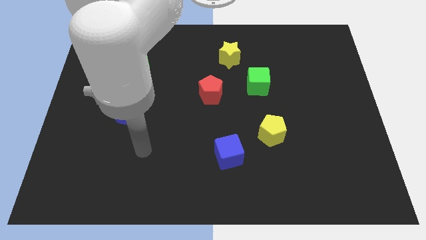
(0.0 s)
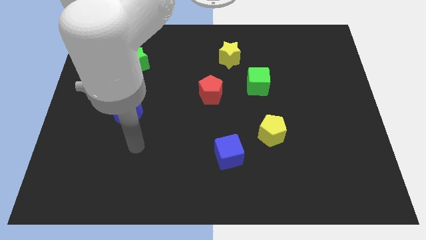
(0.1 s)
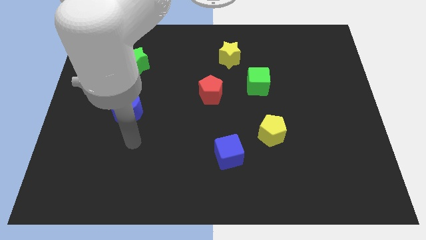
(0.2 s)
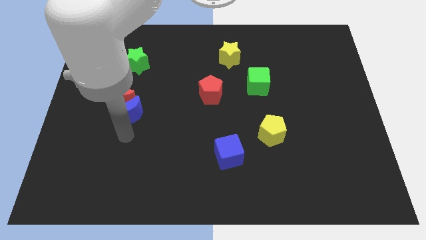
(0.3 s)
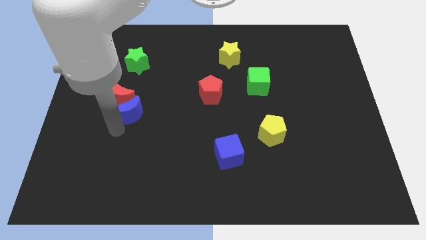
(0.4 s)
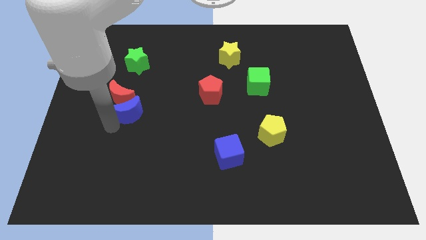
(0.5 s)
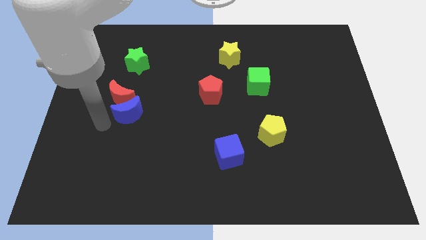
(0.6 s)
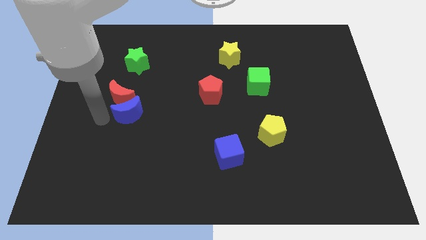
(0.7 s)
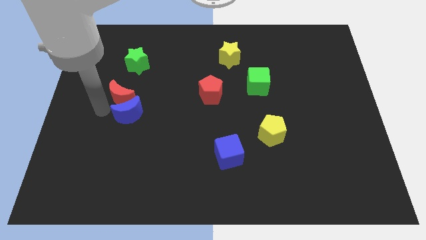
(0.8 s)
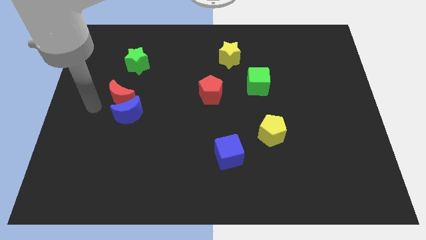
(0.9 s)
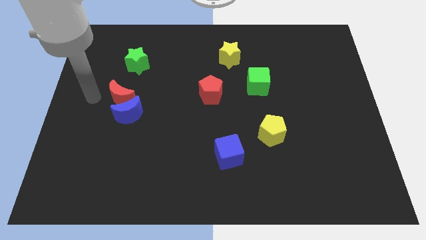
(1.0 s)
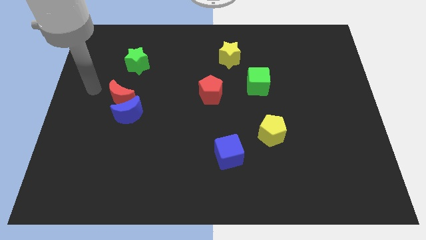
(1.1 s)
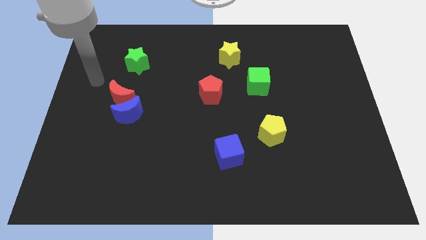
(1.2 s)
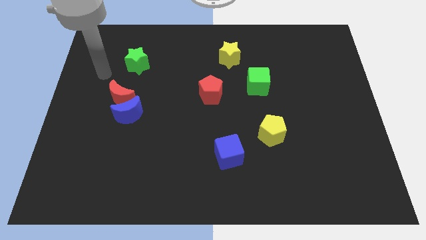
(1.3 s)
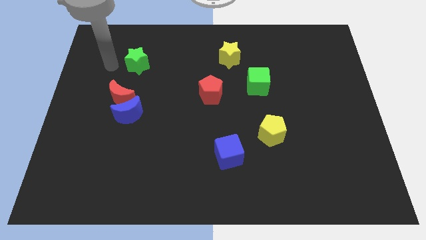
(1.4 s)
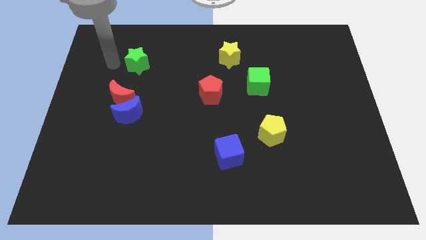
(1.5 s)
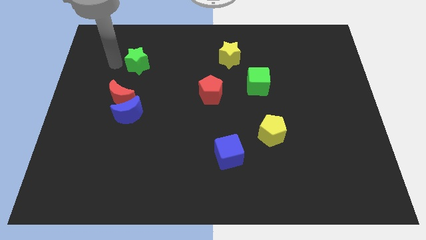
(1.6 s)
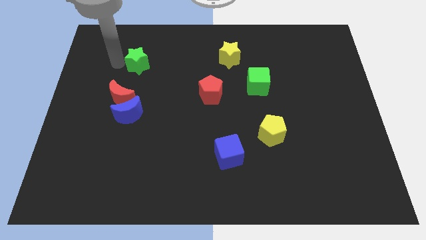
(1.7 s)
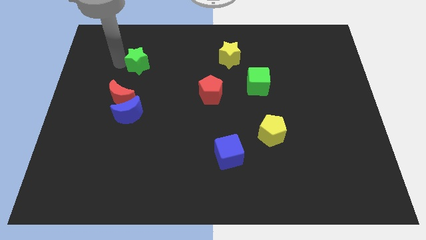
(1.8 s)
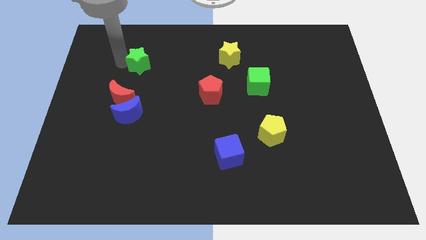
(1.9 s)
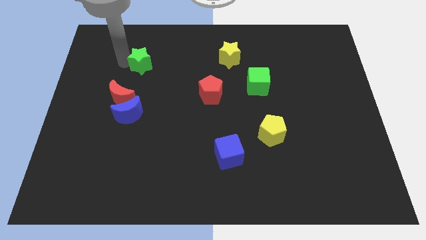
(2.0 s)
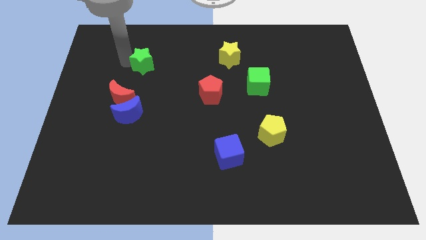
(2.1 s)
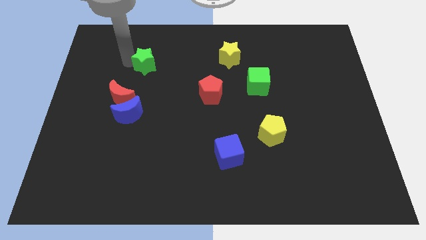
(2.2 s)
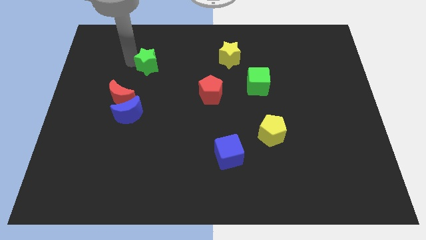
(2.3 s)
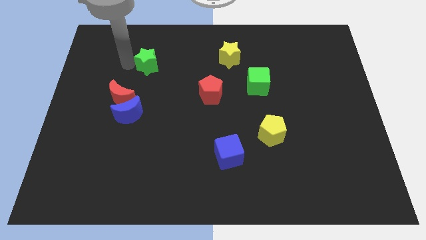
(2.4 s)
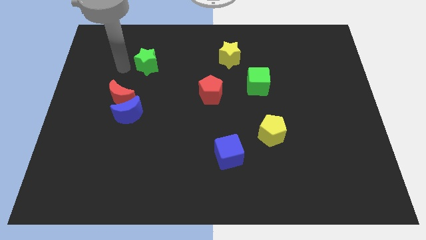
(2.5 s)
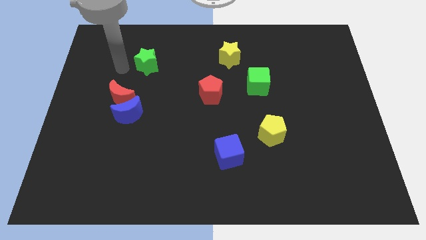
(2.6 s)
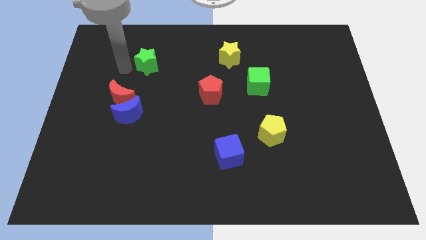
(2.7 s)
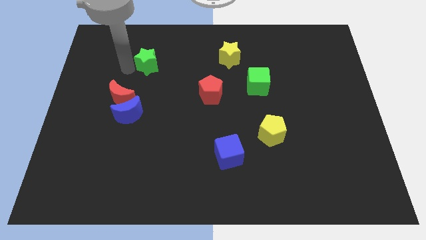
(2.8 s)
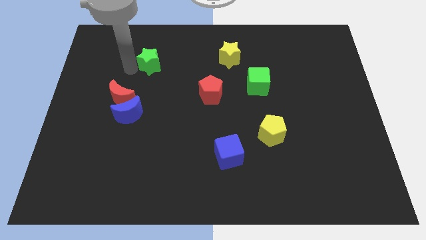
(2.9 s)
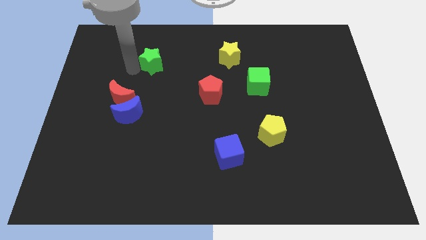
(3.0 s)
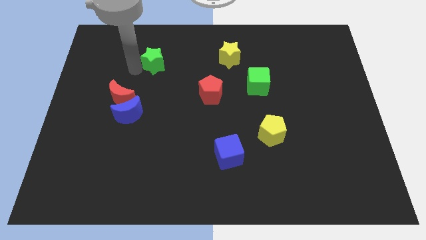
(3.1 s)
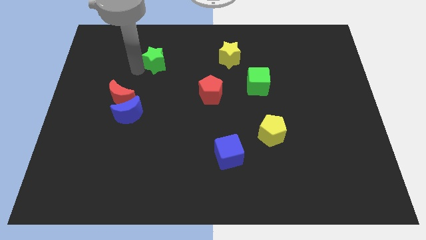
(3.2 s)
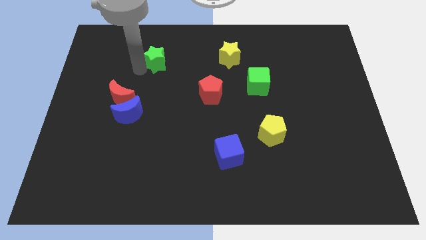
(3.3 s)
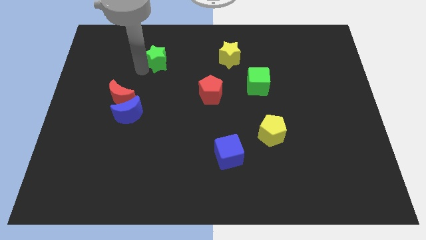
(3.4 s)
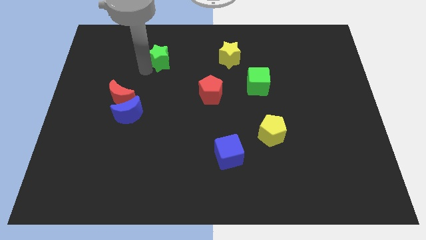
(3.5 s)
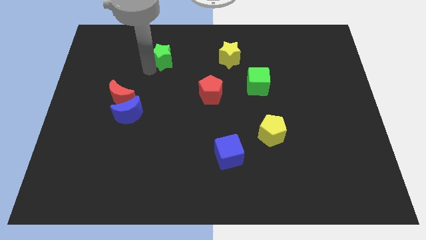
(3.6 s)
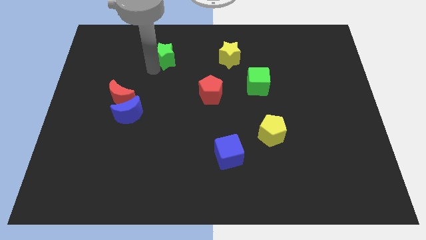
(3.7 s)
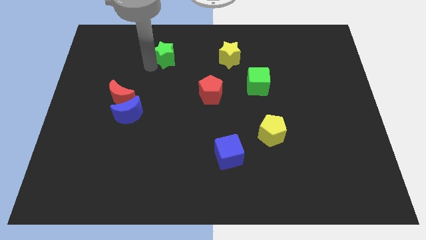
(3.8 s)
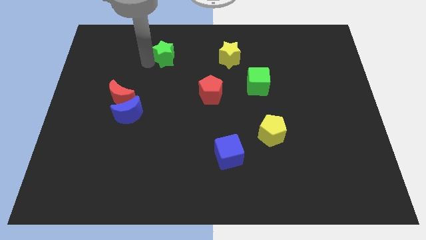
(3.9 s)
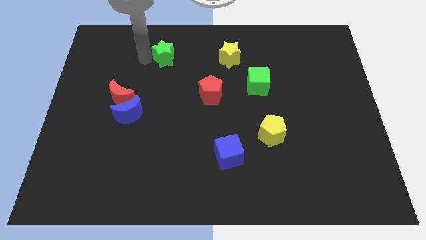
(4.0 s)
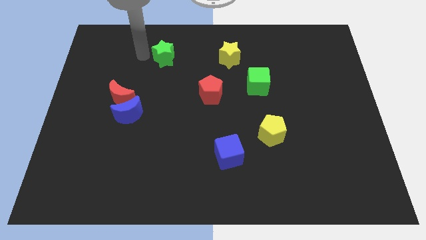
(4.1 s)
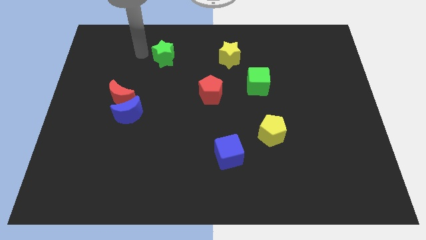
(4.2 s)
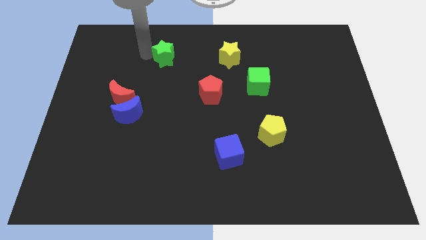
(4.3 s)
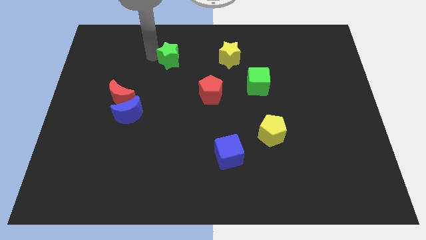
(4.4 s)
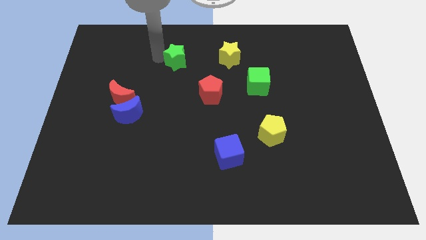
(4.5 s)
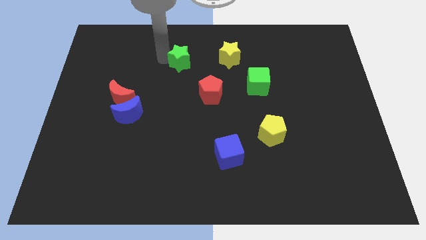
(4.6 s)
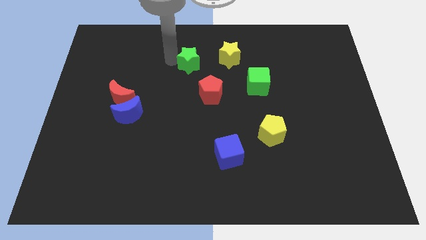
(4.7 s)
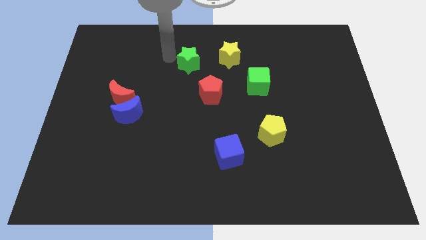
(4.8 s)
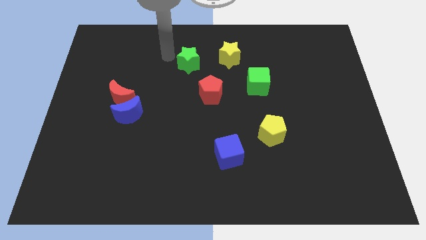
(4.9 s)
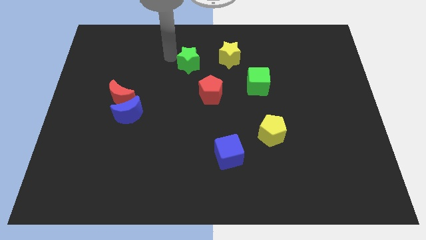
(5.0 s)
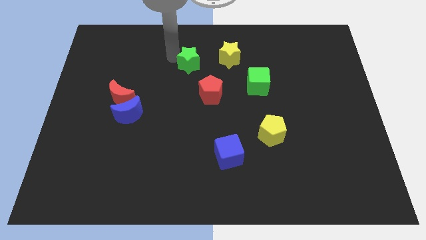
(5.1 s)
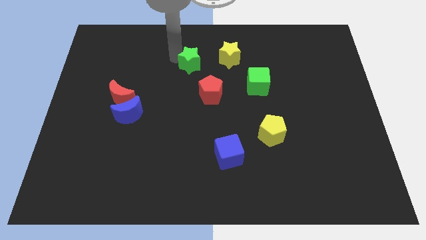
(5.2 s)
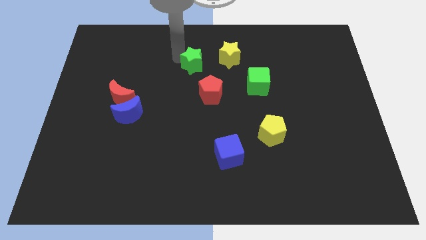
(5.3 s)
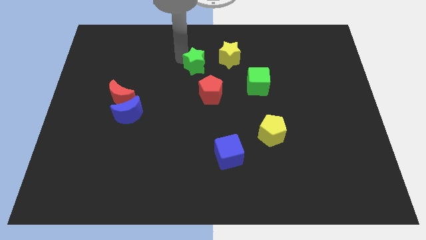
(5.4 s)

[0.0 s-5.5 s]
put the green star to the bottom left of the yellow star

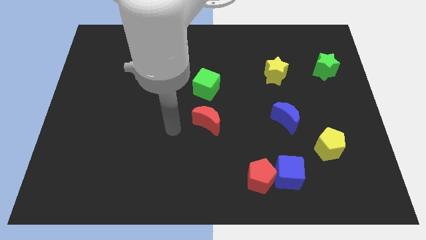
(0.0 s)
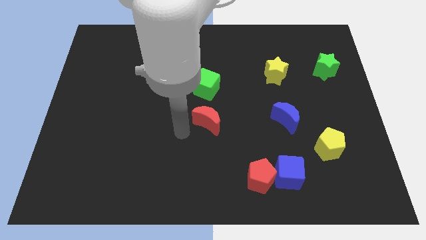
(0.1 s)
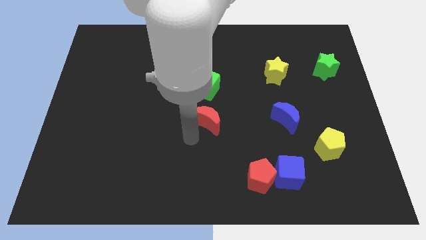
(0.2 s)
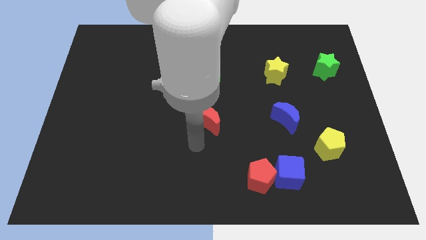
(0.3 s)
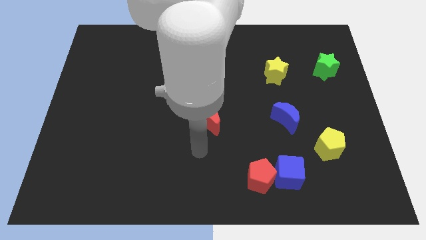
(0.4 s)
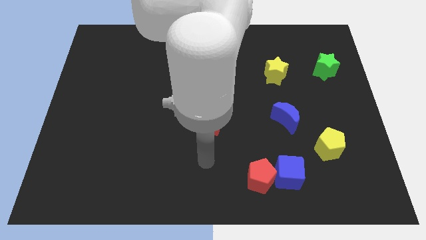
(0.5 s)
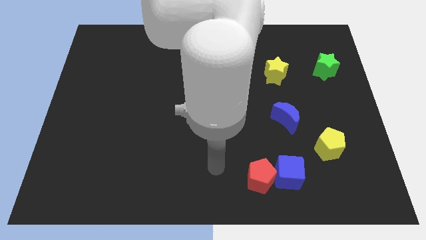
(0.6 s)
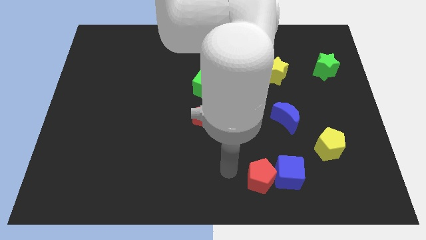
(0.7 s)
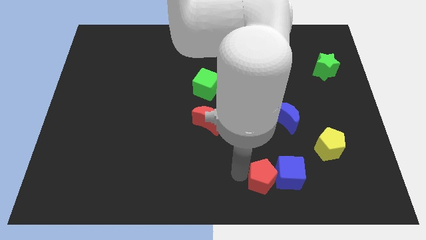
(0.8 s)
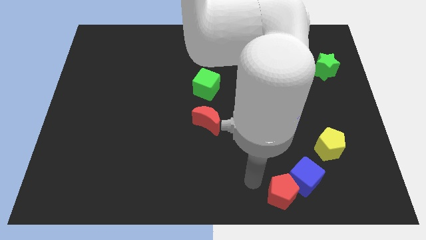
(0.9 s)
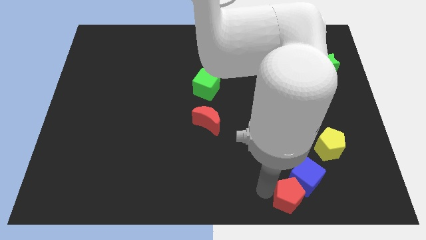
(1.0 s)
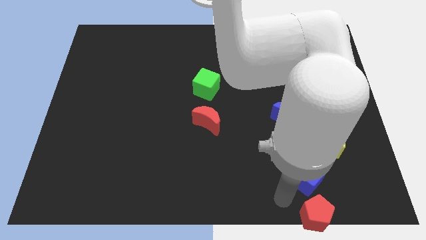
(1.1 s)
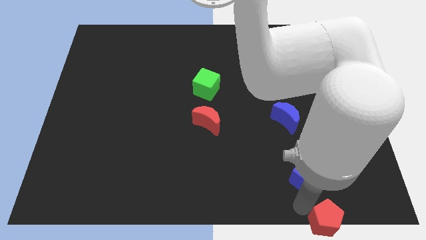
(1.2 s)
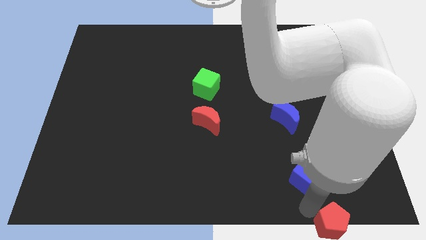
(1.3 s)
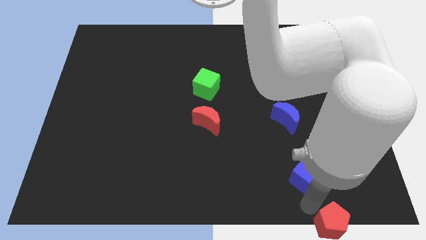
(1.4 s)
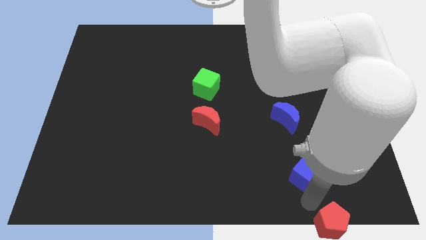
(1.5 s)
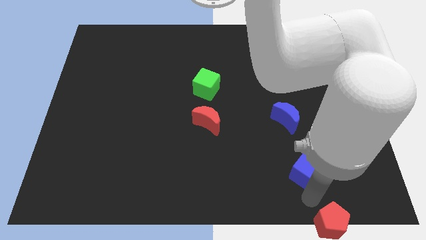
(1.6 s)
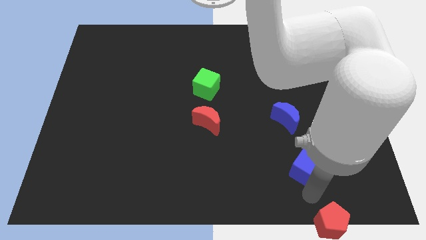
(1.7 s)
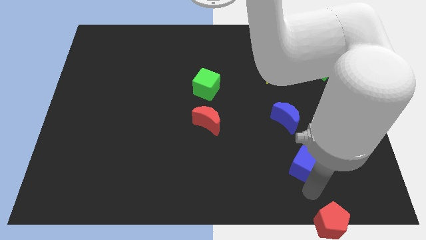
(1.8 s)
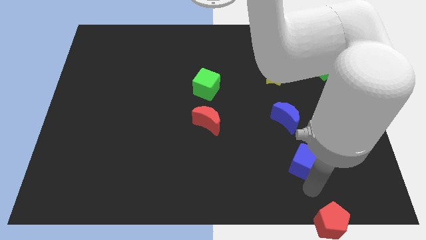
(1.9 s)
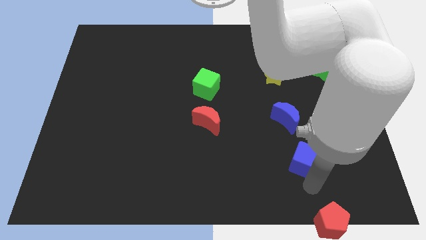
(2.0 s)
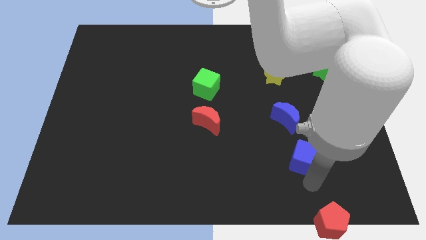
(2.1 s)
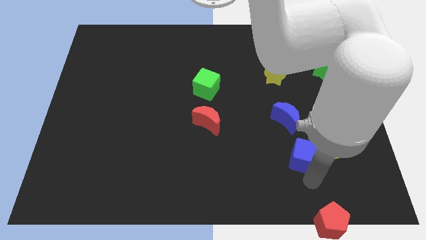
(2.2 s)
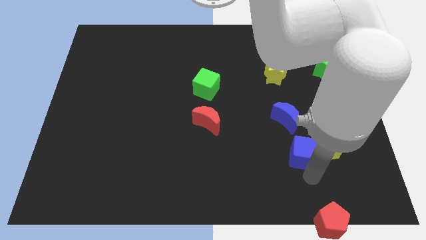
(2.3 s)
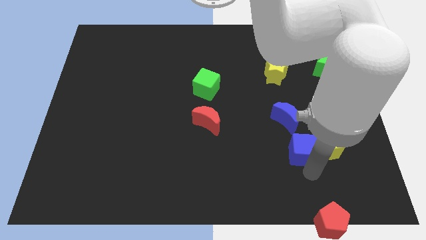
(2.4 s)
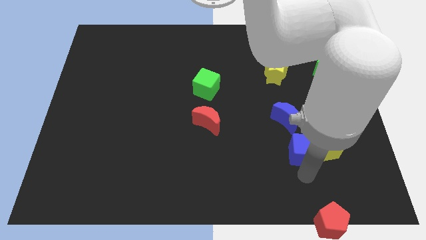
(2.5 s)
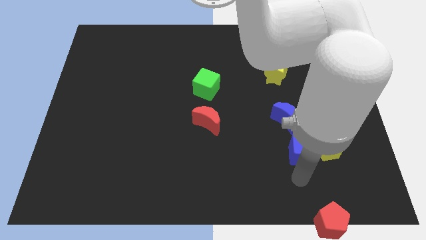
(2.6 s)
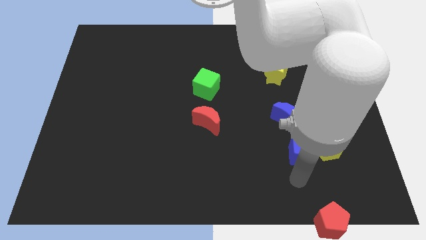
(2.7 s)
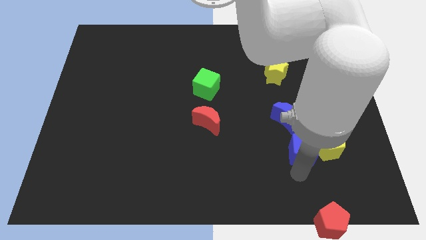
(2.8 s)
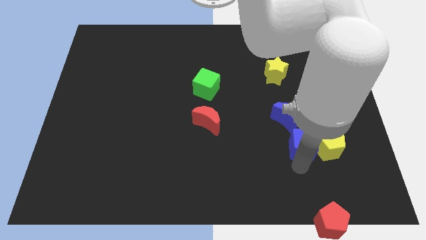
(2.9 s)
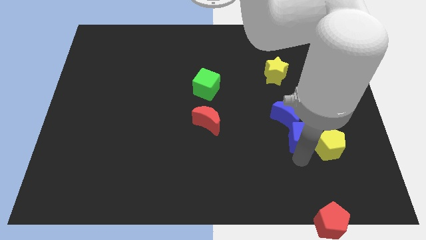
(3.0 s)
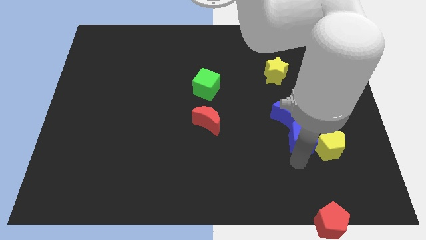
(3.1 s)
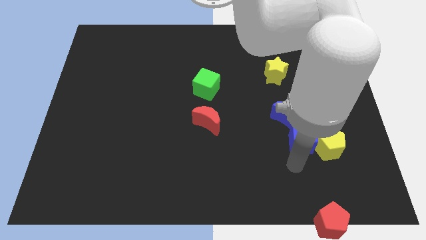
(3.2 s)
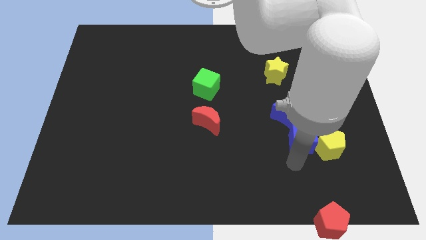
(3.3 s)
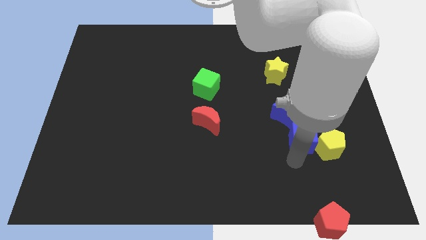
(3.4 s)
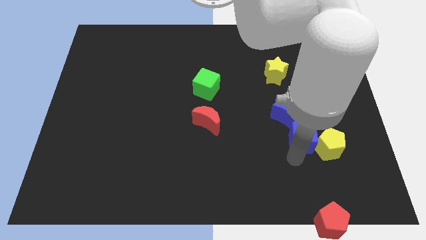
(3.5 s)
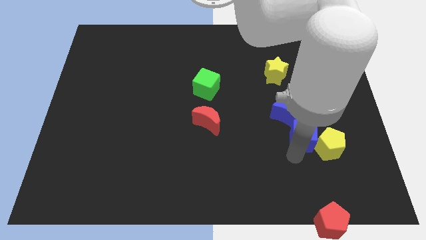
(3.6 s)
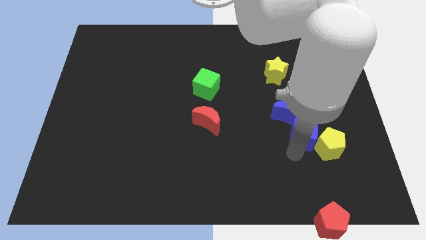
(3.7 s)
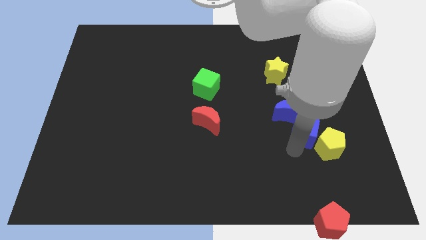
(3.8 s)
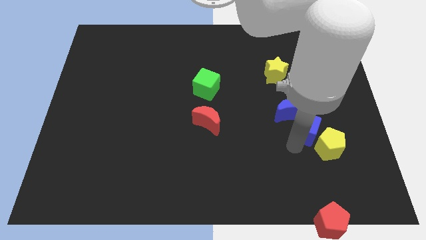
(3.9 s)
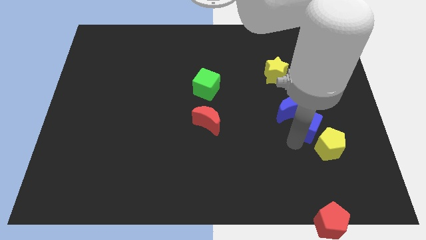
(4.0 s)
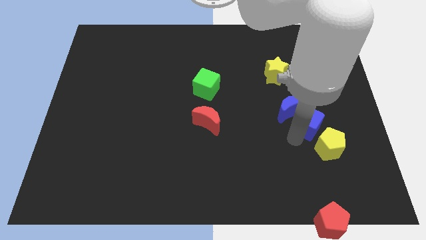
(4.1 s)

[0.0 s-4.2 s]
move the blue cube just right of the blue moon
